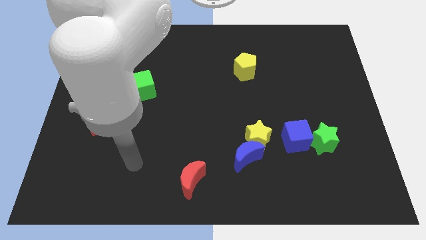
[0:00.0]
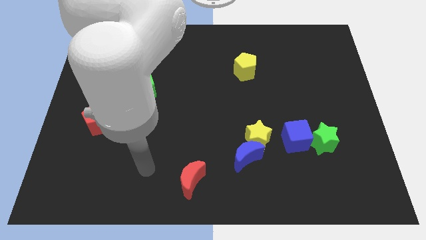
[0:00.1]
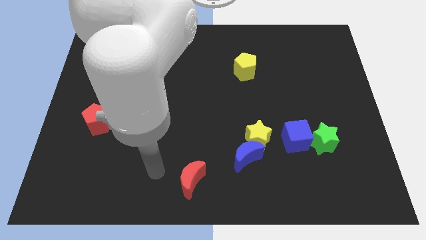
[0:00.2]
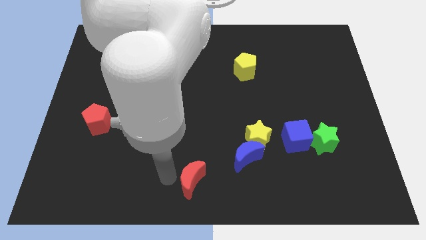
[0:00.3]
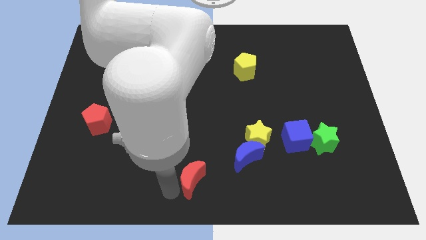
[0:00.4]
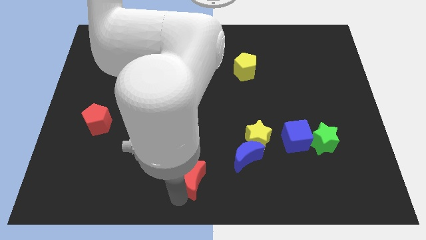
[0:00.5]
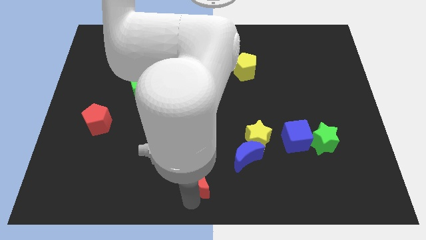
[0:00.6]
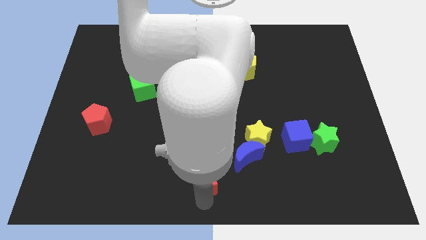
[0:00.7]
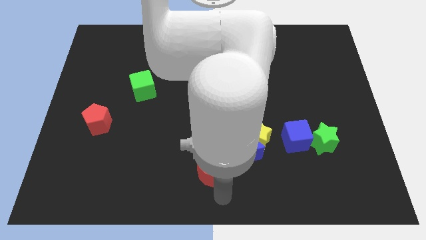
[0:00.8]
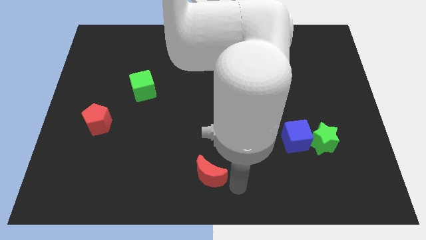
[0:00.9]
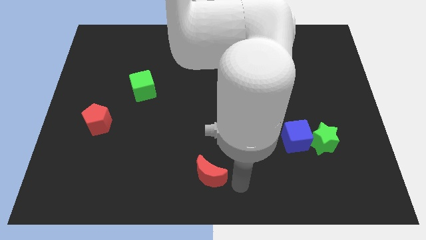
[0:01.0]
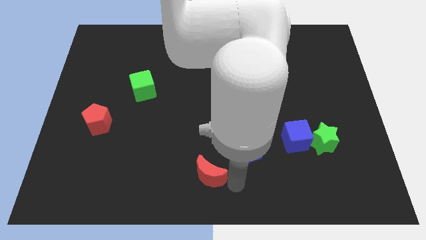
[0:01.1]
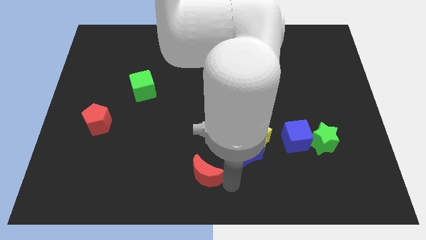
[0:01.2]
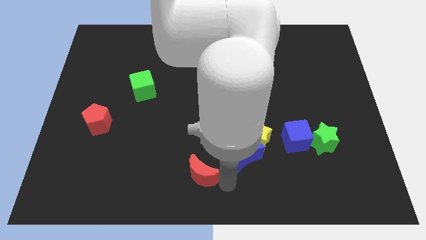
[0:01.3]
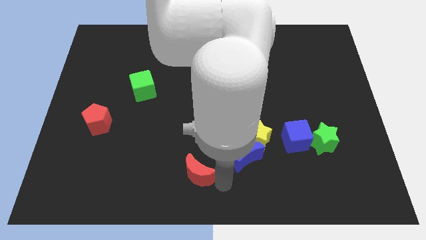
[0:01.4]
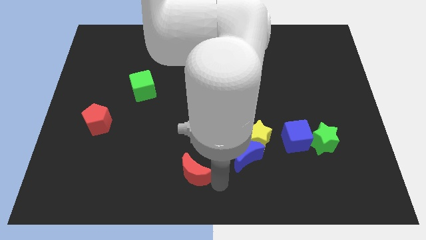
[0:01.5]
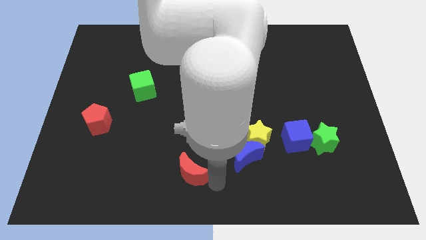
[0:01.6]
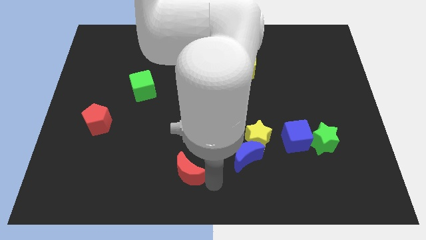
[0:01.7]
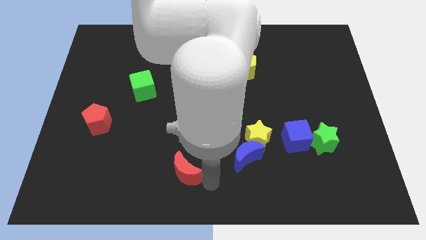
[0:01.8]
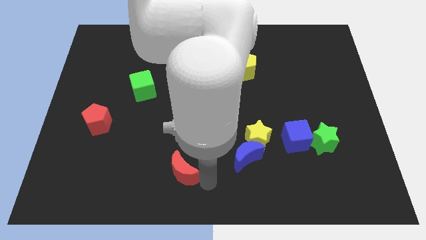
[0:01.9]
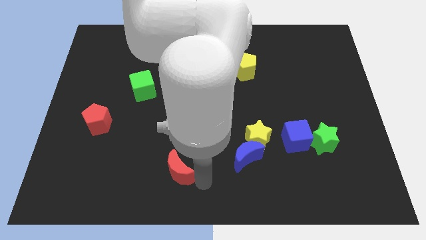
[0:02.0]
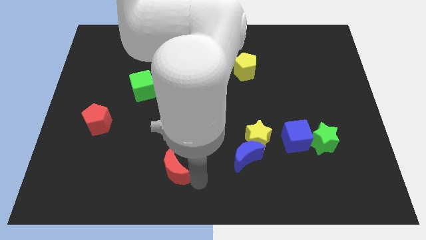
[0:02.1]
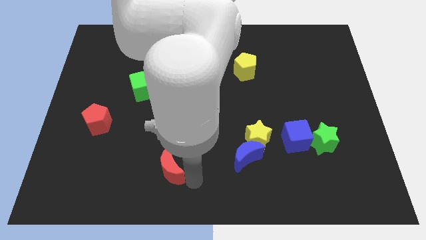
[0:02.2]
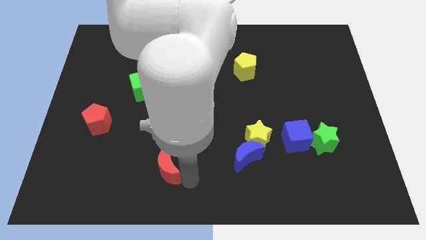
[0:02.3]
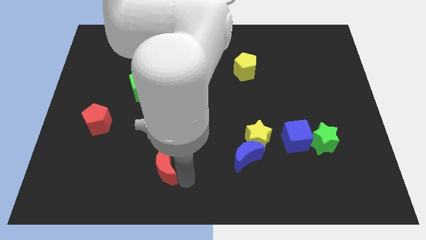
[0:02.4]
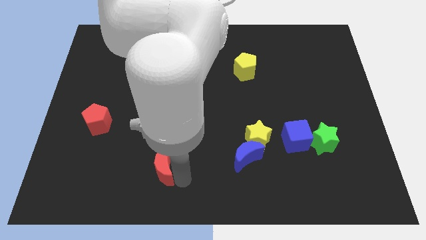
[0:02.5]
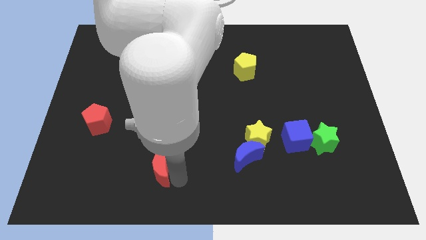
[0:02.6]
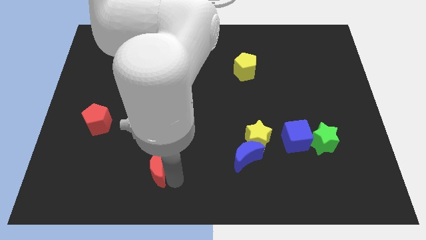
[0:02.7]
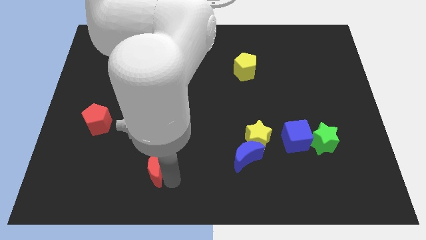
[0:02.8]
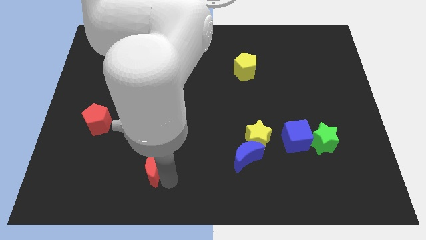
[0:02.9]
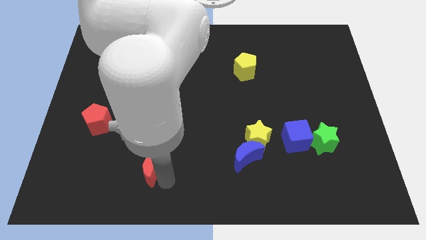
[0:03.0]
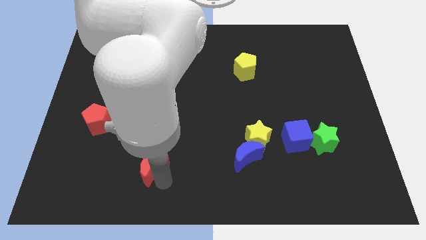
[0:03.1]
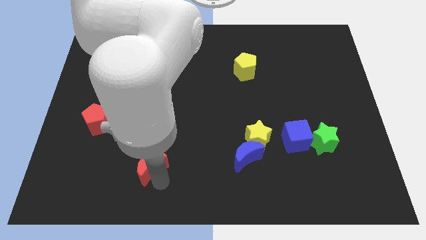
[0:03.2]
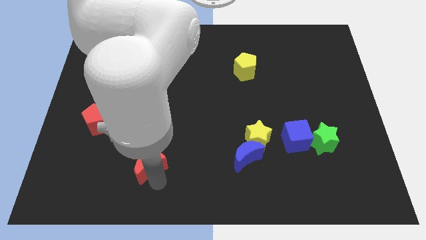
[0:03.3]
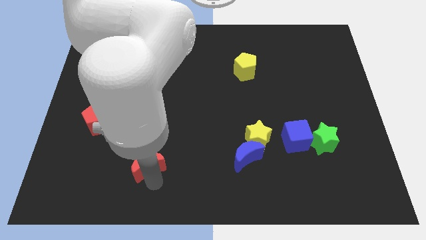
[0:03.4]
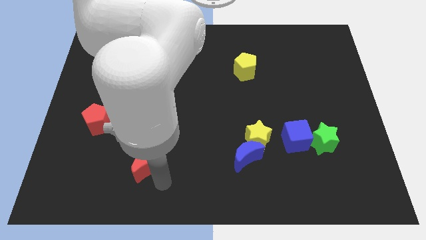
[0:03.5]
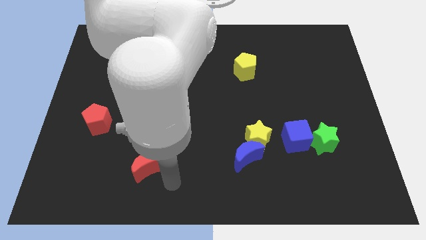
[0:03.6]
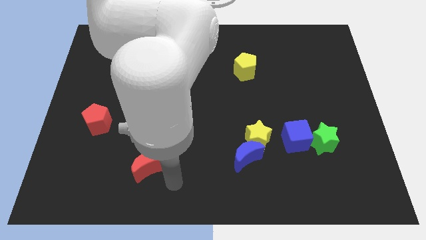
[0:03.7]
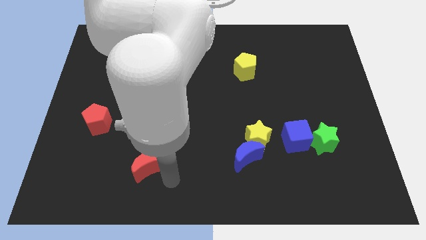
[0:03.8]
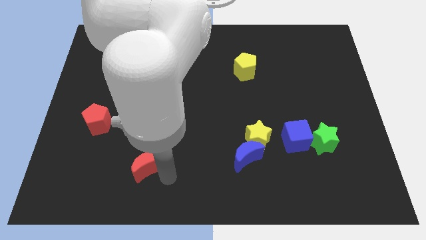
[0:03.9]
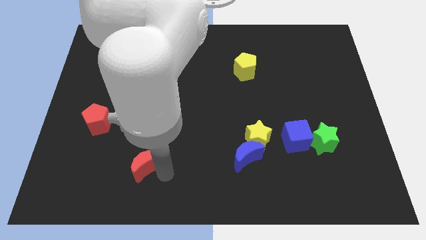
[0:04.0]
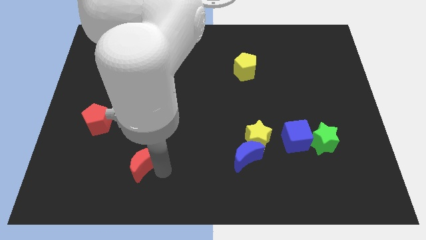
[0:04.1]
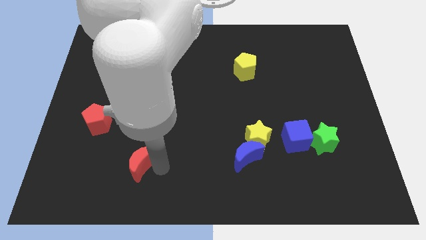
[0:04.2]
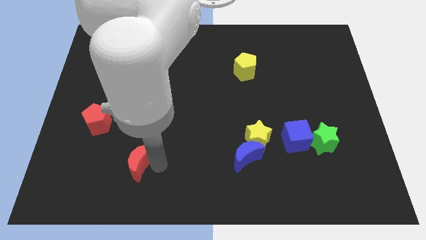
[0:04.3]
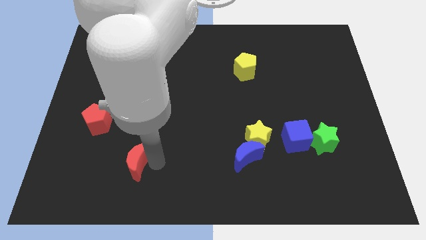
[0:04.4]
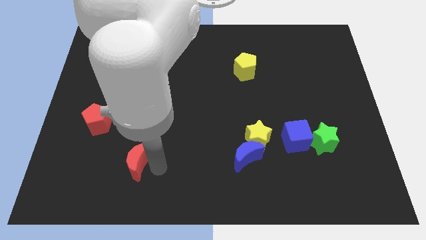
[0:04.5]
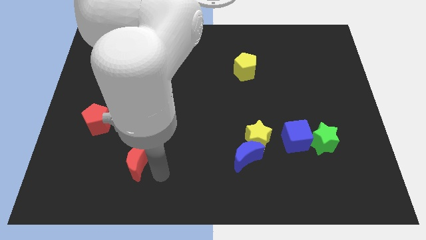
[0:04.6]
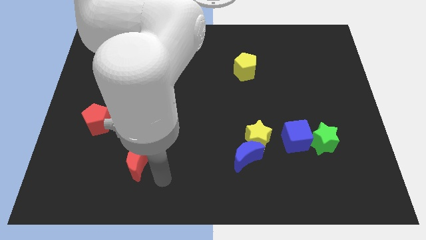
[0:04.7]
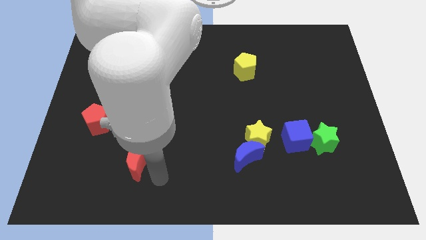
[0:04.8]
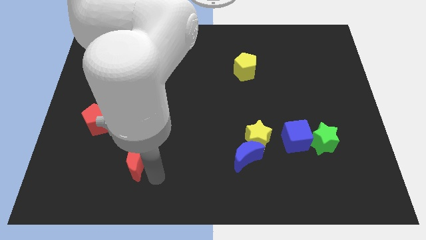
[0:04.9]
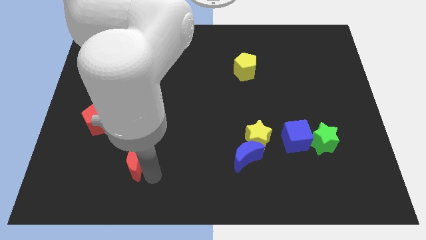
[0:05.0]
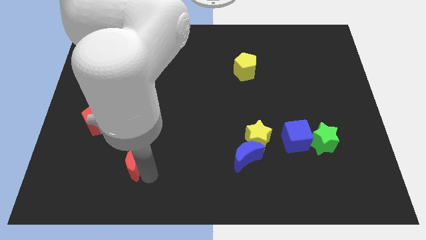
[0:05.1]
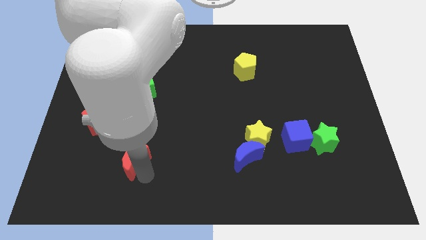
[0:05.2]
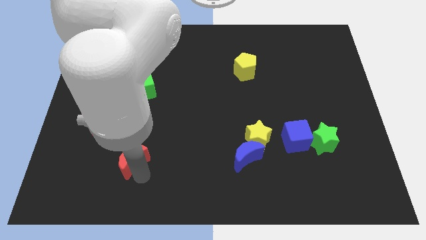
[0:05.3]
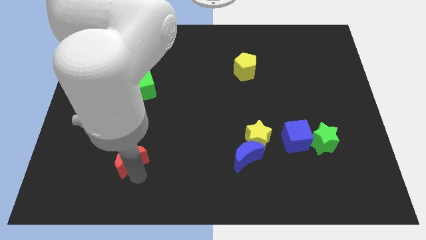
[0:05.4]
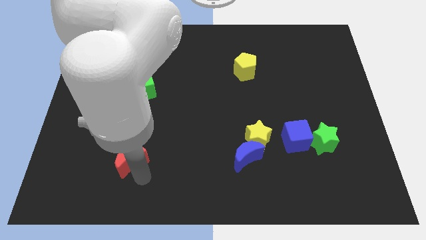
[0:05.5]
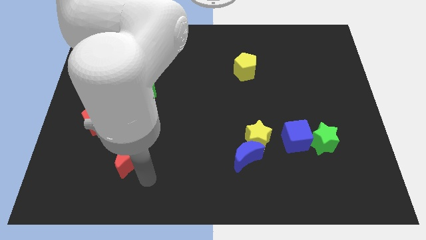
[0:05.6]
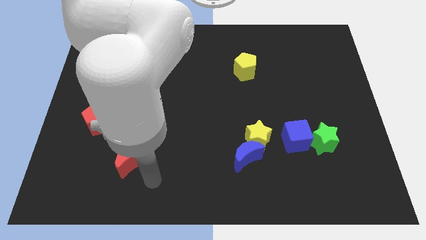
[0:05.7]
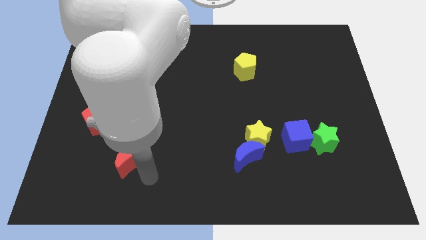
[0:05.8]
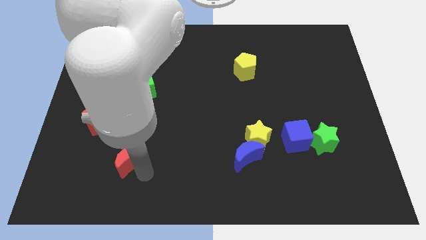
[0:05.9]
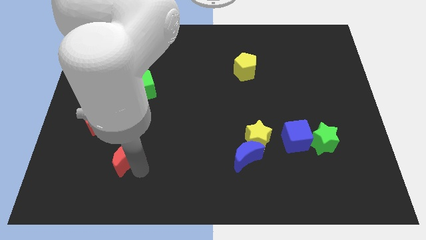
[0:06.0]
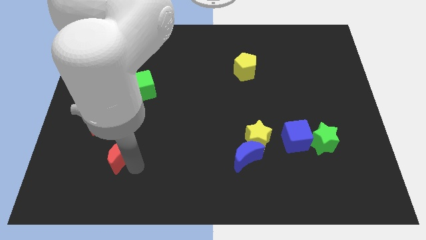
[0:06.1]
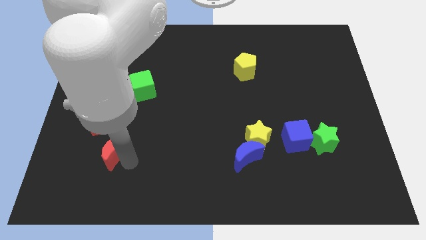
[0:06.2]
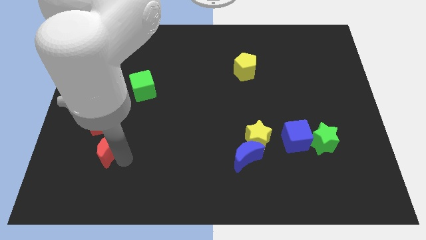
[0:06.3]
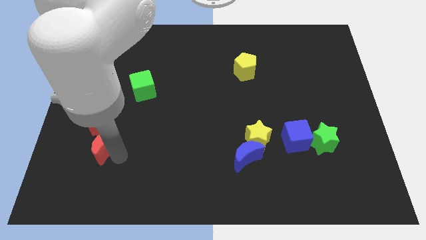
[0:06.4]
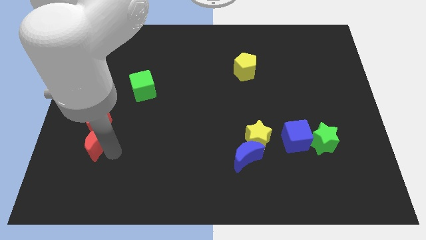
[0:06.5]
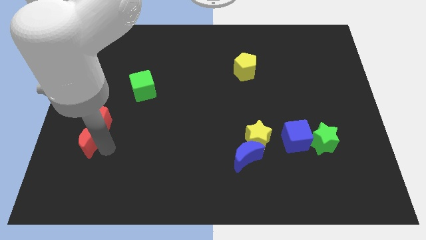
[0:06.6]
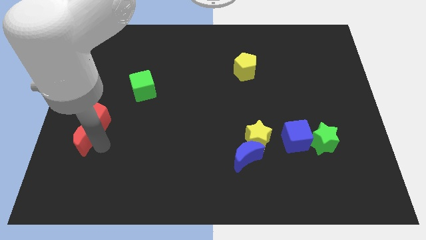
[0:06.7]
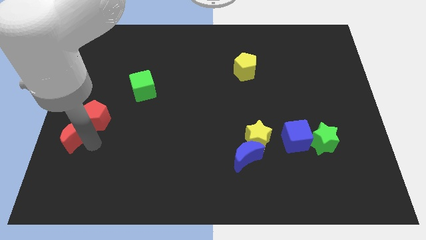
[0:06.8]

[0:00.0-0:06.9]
push the red moon to the center left

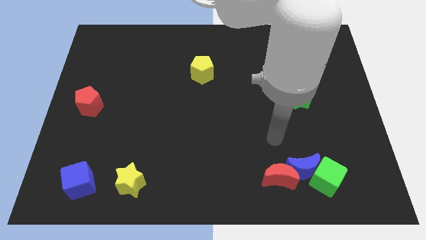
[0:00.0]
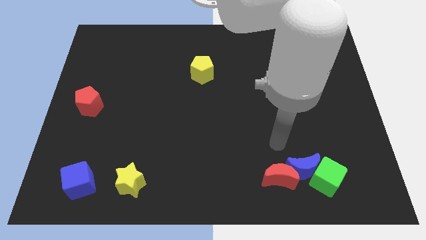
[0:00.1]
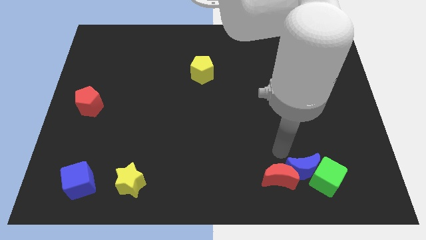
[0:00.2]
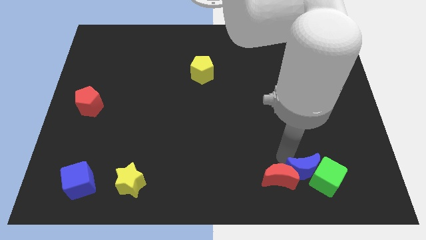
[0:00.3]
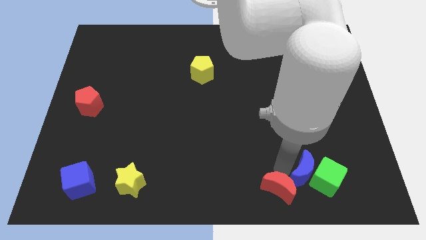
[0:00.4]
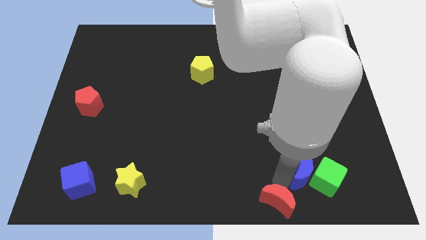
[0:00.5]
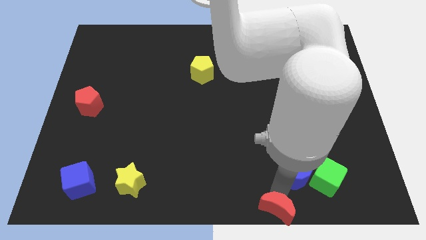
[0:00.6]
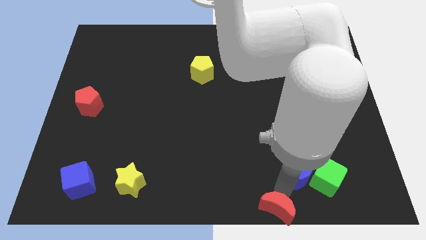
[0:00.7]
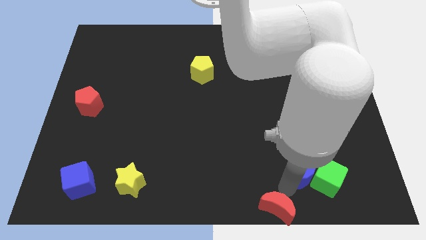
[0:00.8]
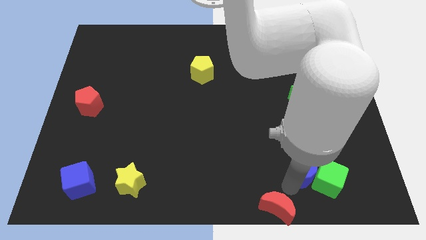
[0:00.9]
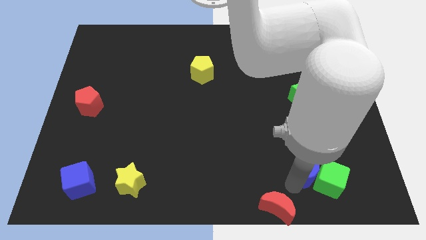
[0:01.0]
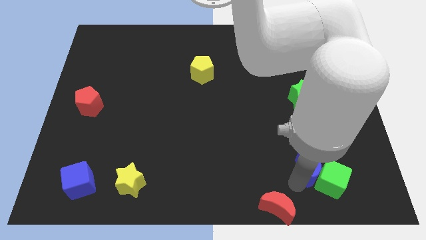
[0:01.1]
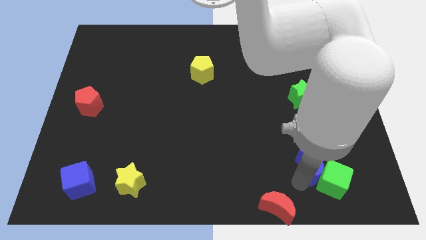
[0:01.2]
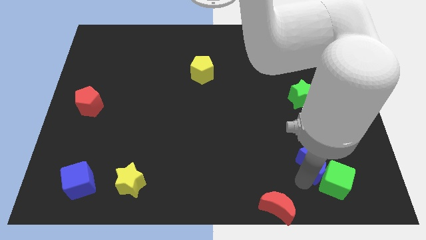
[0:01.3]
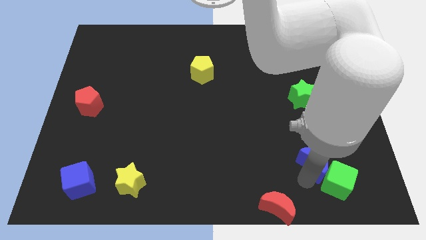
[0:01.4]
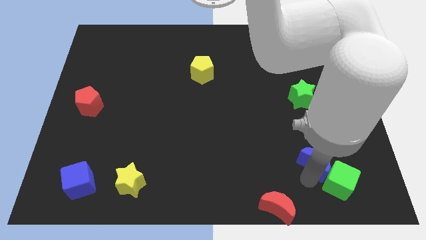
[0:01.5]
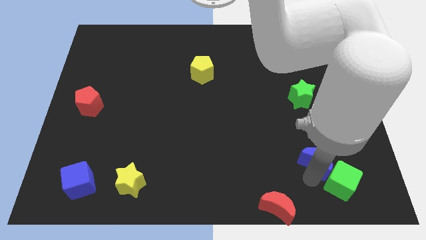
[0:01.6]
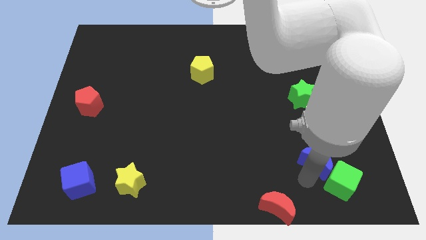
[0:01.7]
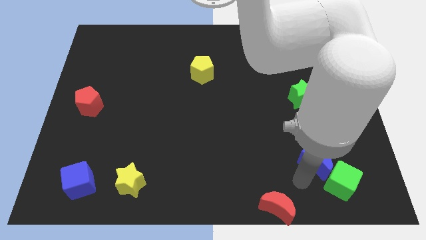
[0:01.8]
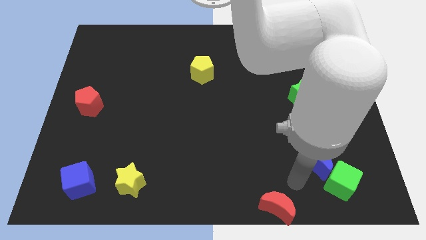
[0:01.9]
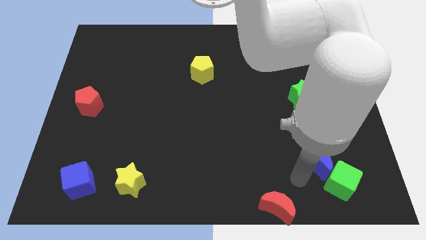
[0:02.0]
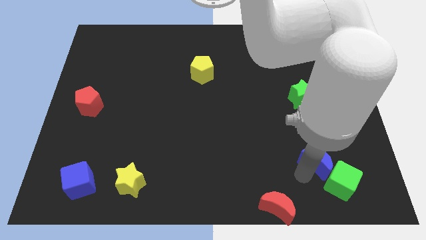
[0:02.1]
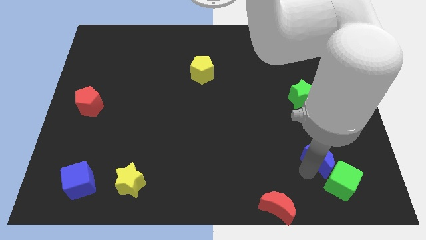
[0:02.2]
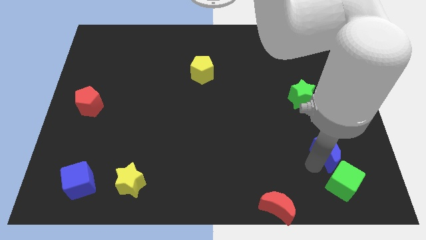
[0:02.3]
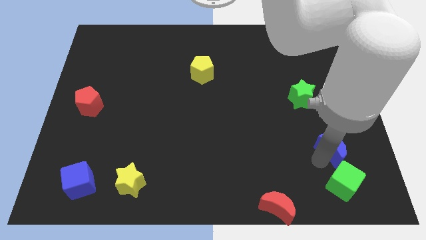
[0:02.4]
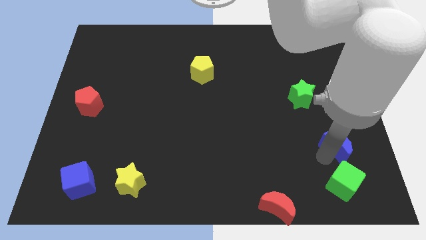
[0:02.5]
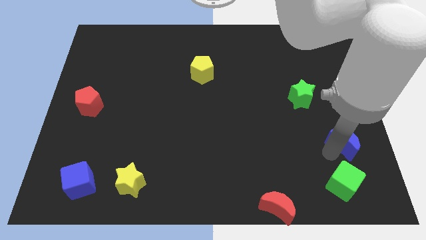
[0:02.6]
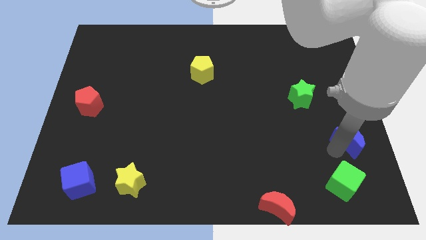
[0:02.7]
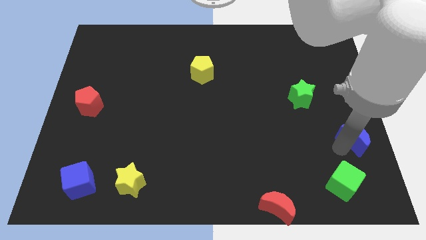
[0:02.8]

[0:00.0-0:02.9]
put the blue moon to the right side
